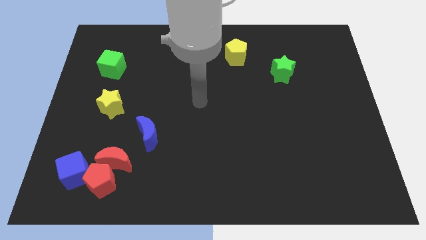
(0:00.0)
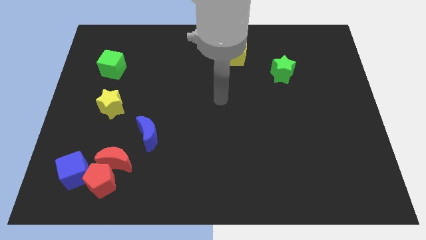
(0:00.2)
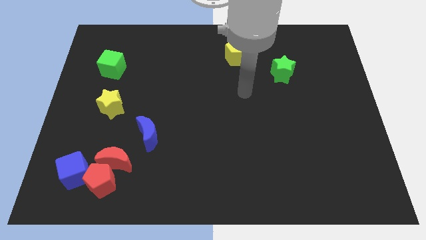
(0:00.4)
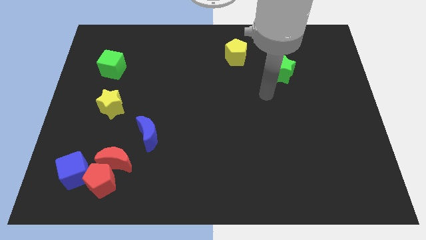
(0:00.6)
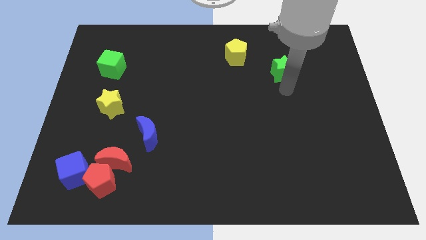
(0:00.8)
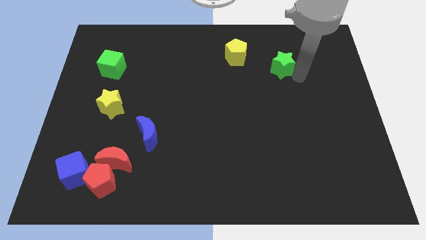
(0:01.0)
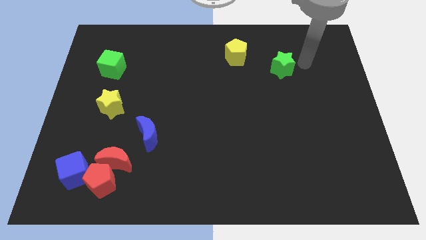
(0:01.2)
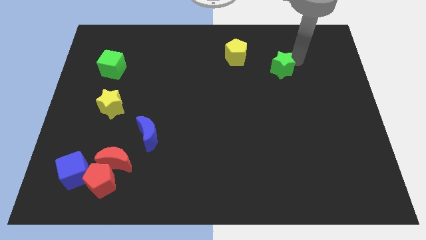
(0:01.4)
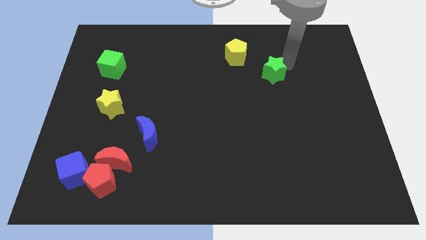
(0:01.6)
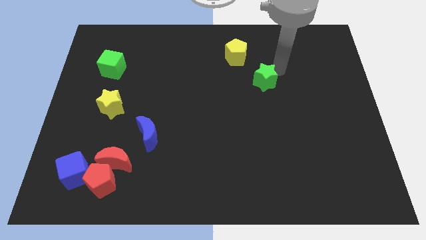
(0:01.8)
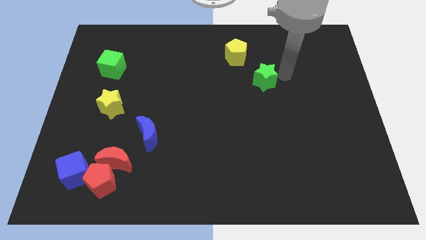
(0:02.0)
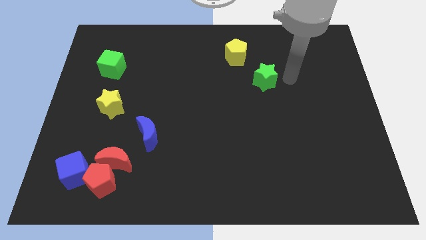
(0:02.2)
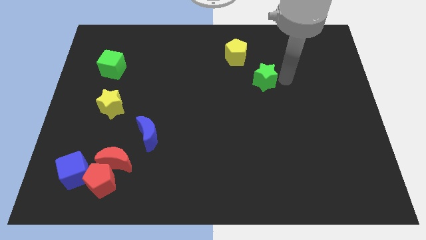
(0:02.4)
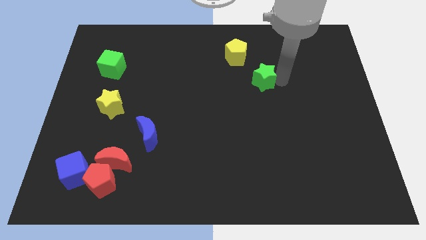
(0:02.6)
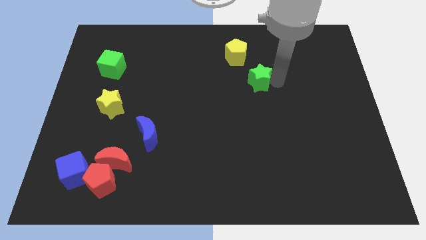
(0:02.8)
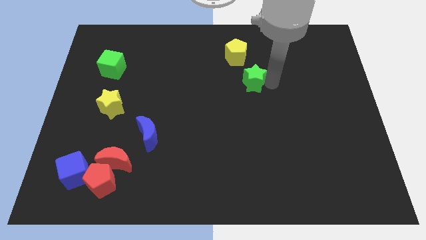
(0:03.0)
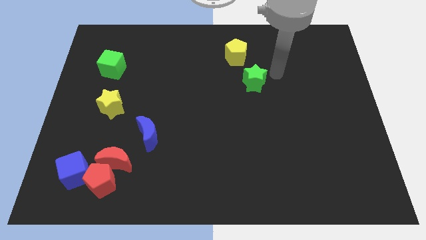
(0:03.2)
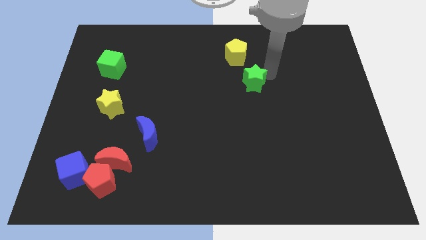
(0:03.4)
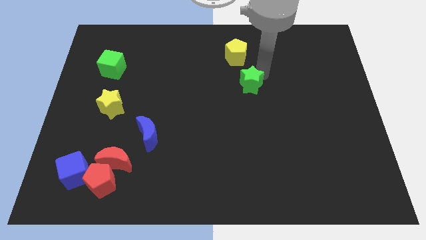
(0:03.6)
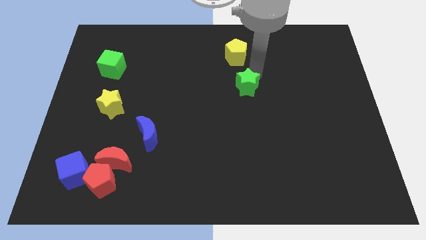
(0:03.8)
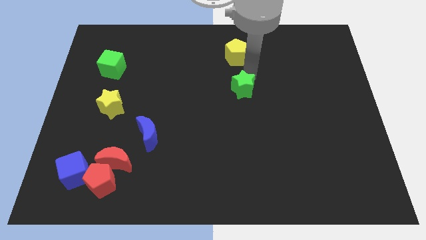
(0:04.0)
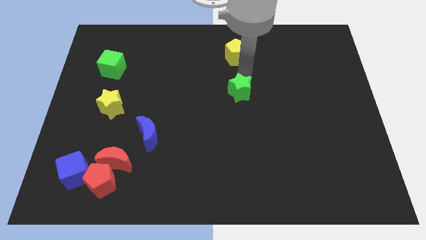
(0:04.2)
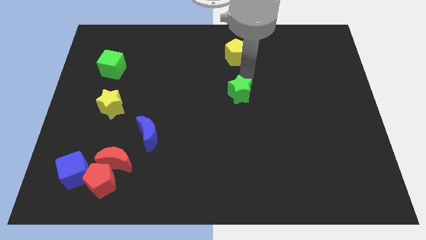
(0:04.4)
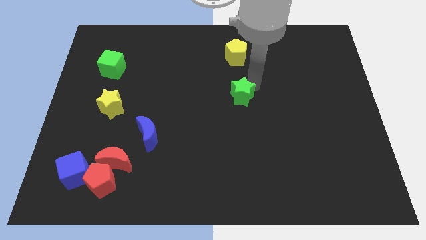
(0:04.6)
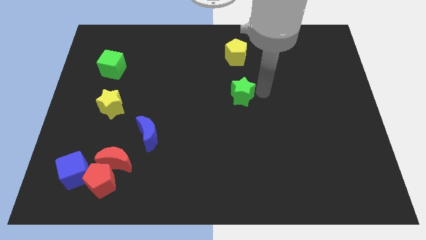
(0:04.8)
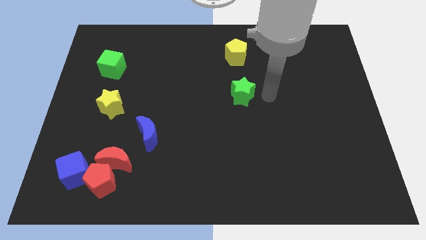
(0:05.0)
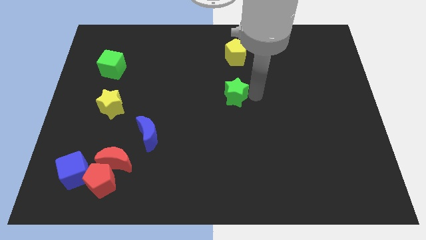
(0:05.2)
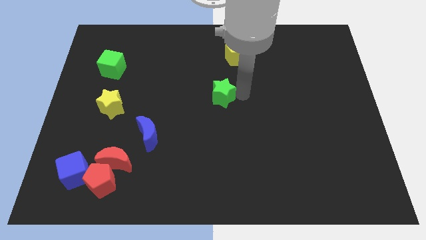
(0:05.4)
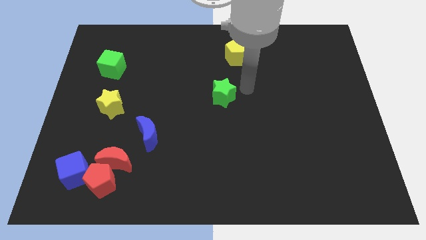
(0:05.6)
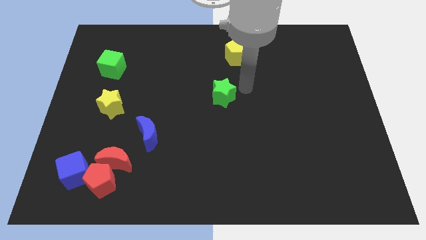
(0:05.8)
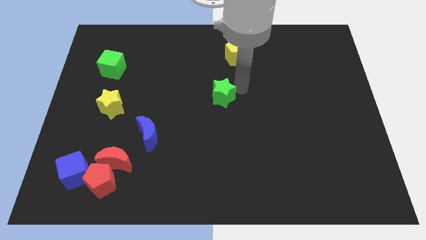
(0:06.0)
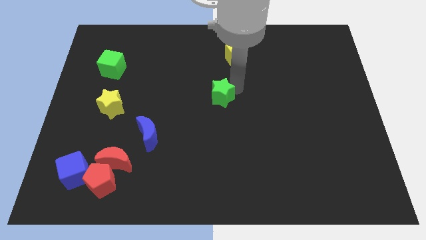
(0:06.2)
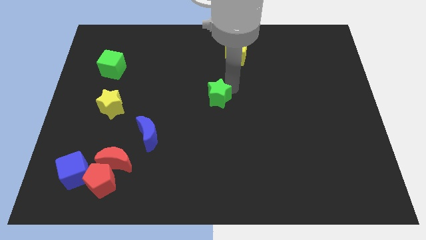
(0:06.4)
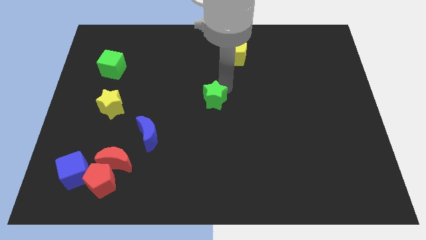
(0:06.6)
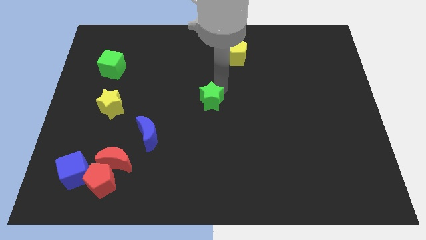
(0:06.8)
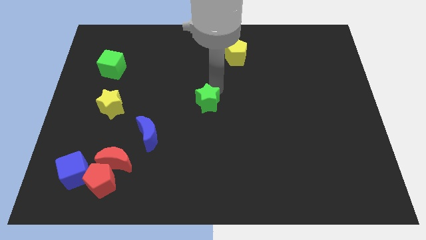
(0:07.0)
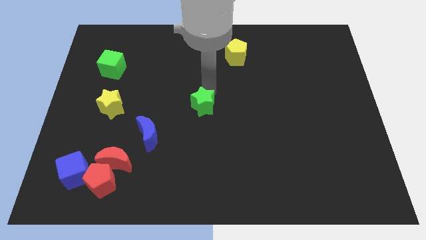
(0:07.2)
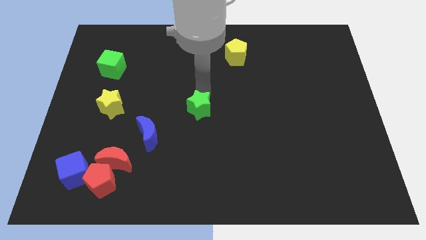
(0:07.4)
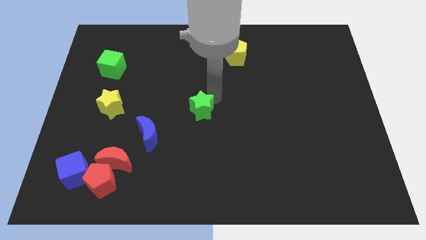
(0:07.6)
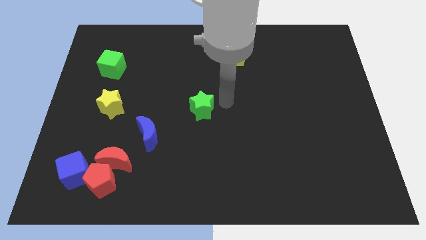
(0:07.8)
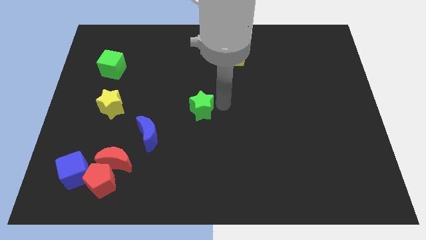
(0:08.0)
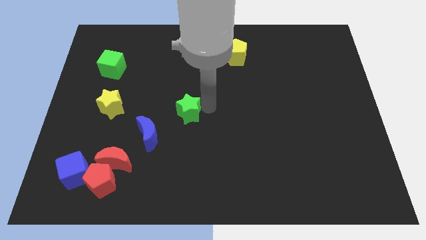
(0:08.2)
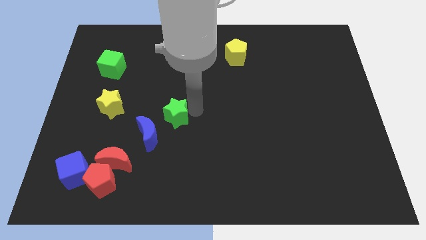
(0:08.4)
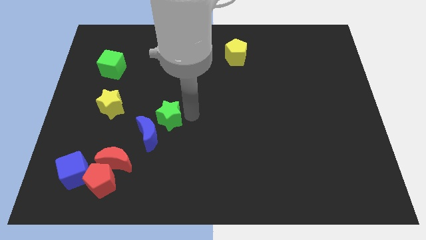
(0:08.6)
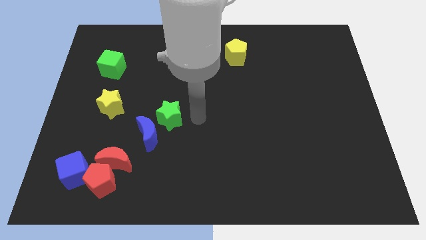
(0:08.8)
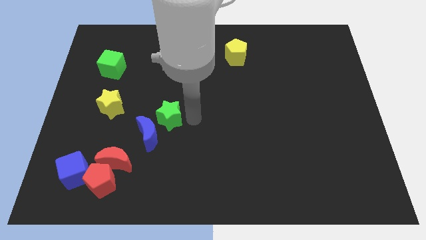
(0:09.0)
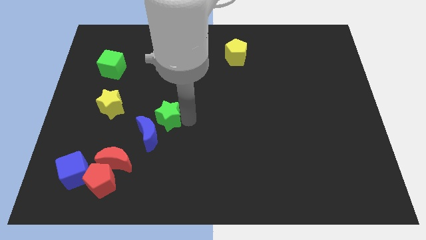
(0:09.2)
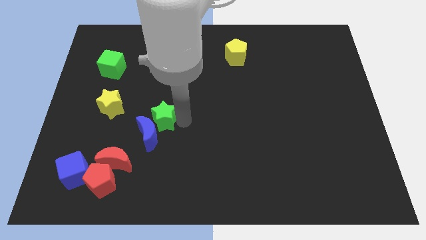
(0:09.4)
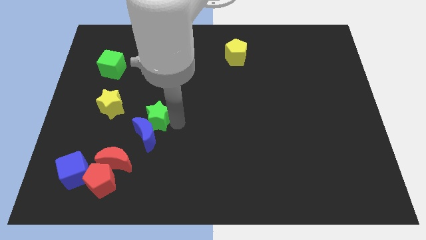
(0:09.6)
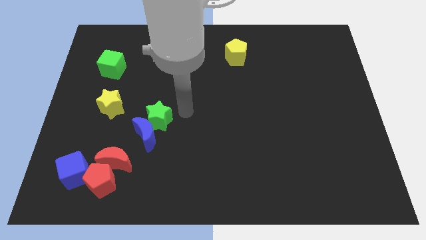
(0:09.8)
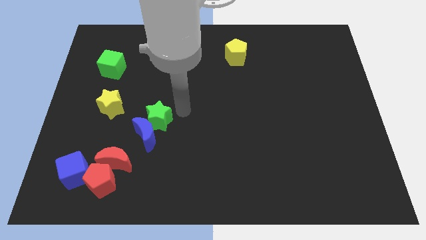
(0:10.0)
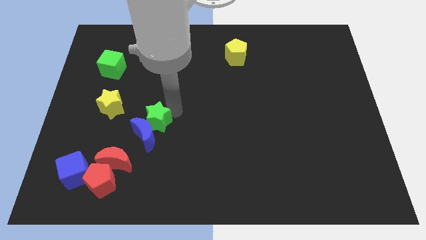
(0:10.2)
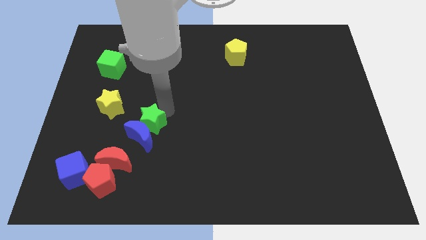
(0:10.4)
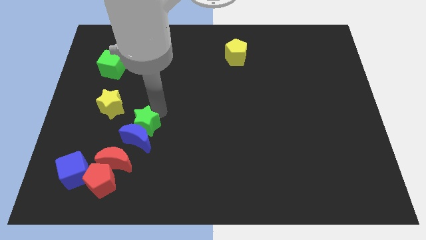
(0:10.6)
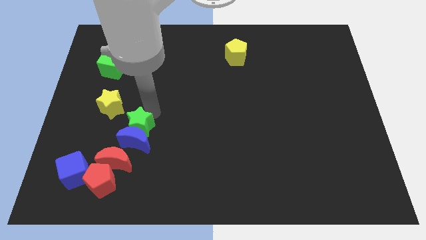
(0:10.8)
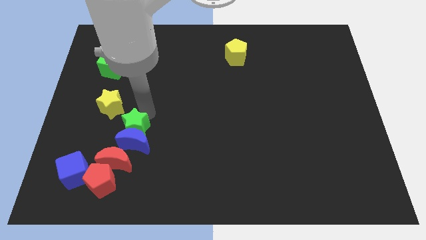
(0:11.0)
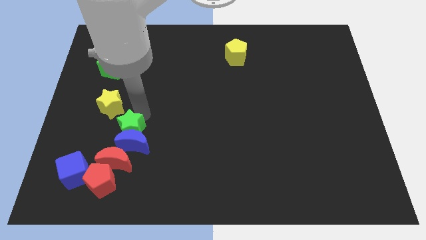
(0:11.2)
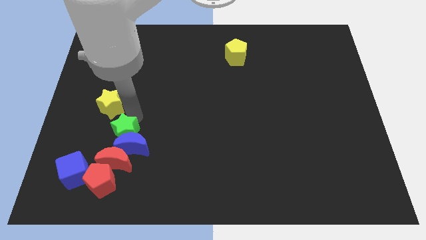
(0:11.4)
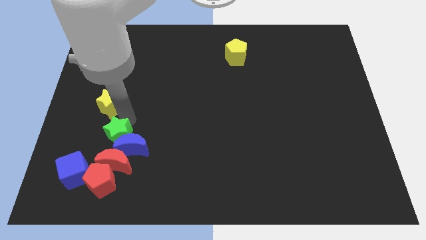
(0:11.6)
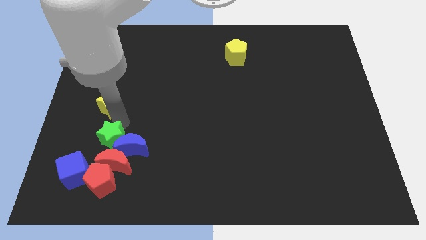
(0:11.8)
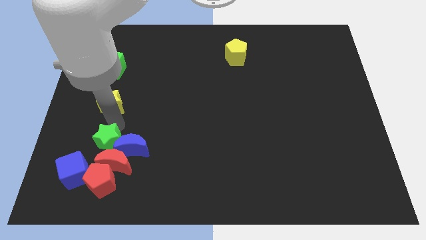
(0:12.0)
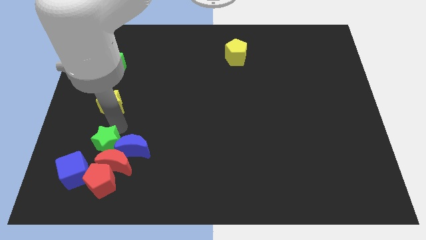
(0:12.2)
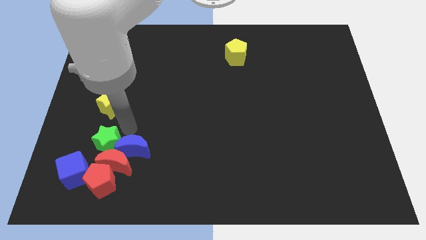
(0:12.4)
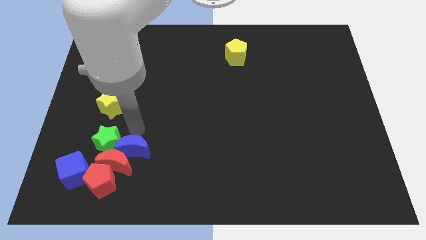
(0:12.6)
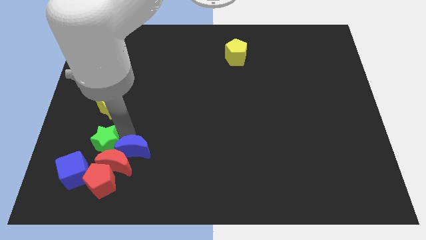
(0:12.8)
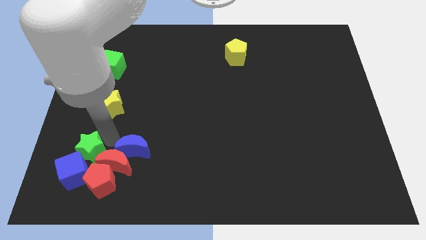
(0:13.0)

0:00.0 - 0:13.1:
slide the green star to the blue cube

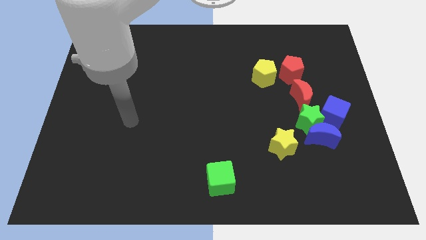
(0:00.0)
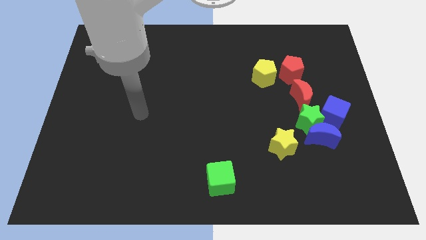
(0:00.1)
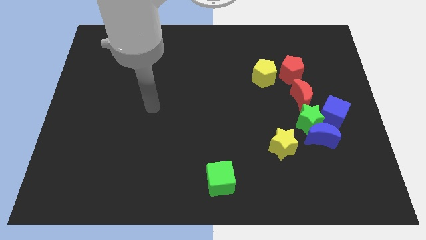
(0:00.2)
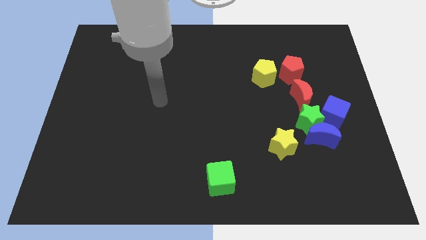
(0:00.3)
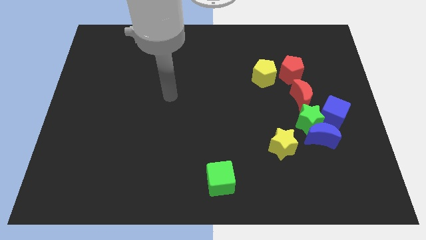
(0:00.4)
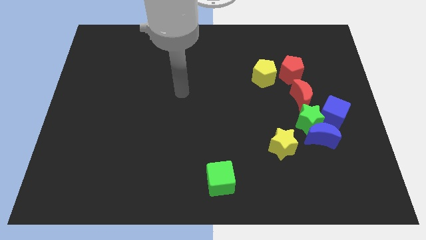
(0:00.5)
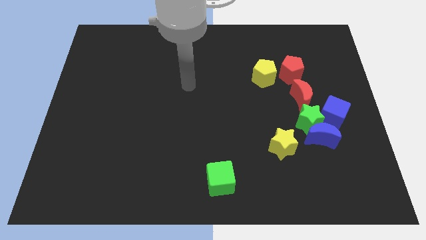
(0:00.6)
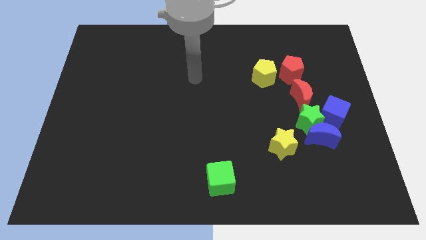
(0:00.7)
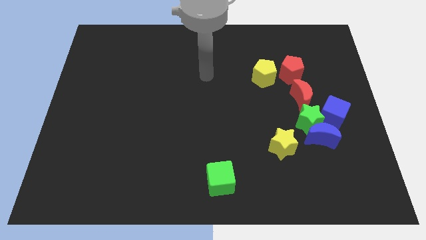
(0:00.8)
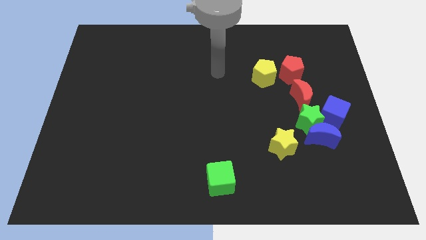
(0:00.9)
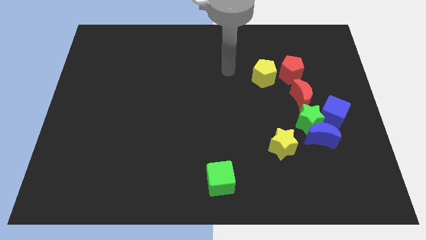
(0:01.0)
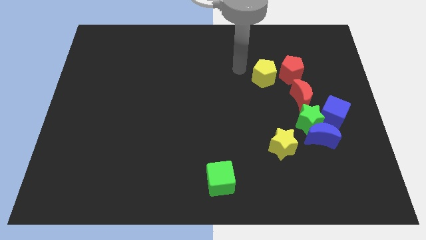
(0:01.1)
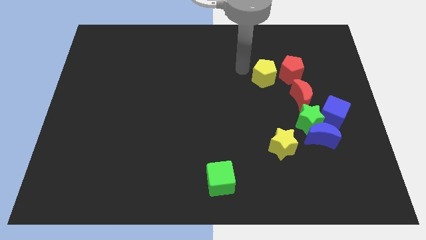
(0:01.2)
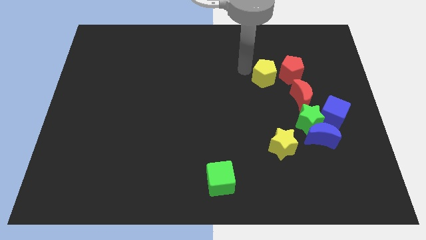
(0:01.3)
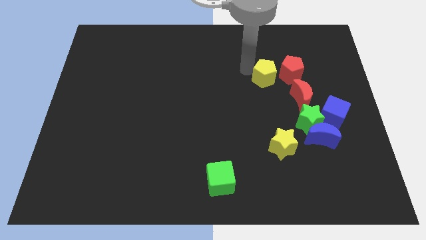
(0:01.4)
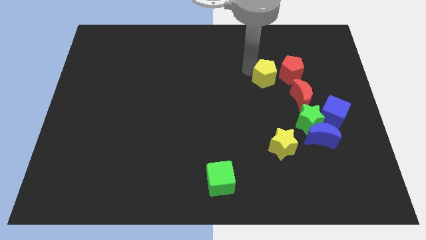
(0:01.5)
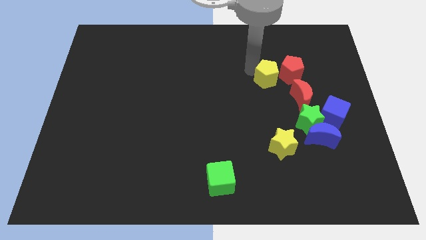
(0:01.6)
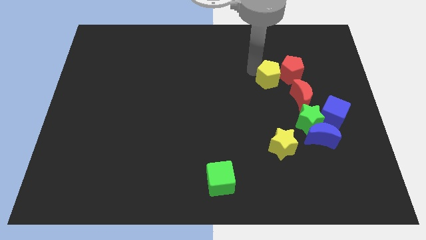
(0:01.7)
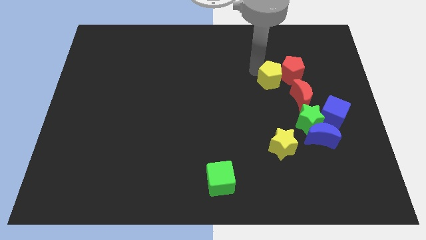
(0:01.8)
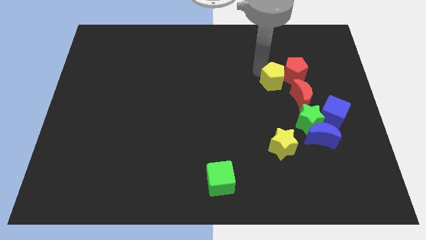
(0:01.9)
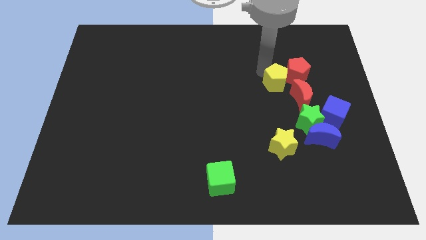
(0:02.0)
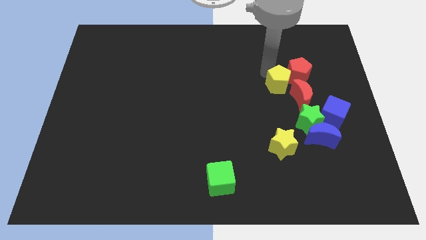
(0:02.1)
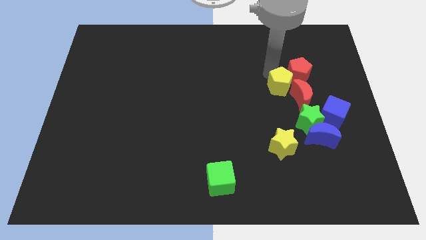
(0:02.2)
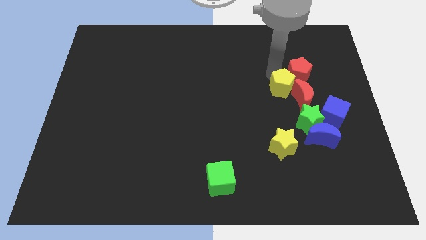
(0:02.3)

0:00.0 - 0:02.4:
slide the yellow pentagon towards the red moon
